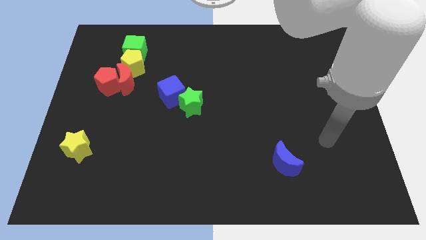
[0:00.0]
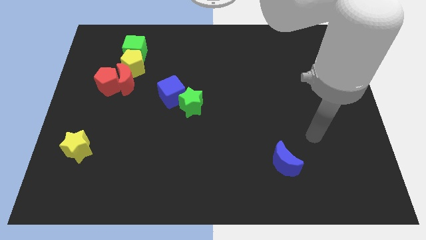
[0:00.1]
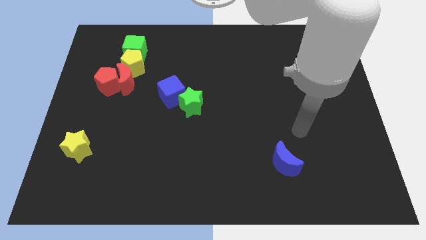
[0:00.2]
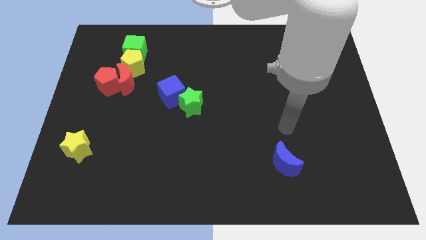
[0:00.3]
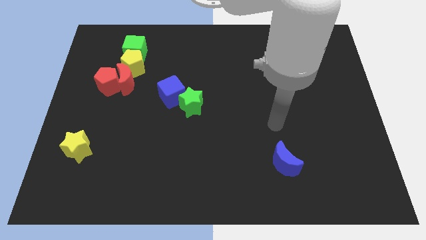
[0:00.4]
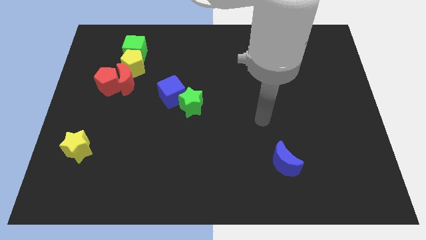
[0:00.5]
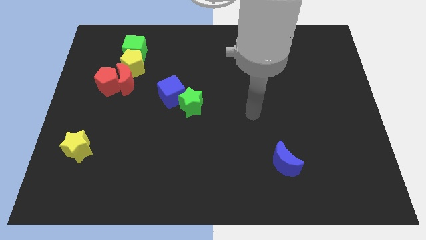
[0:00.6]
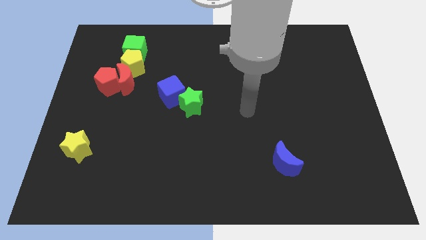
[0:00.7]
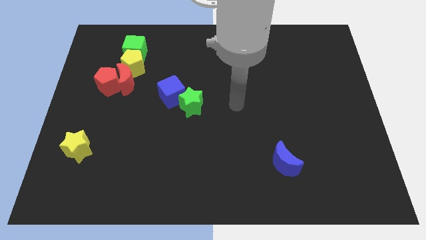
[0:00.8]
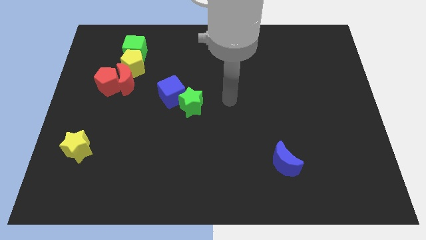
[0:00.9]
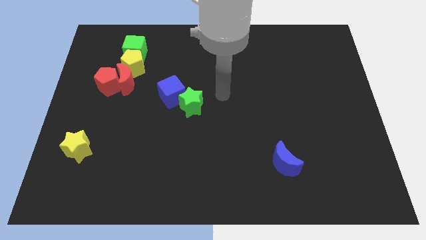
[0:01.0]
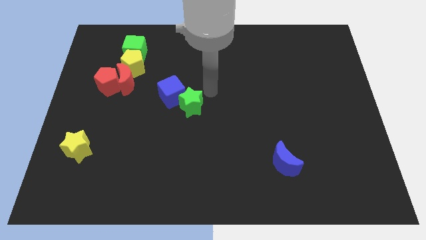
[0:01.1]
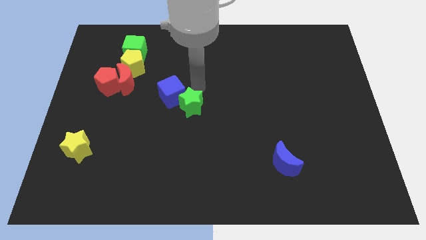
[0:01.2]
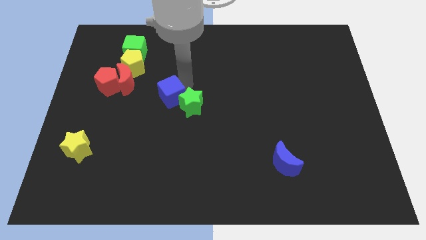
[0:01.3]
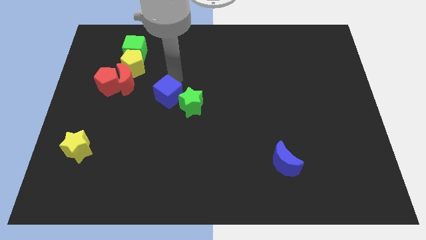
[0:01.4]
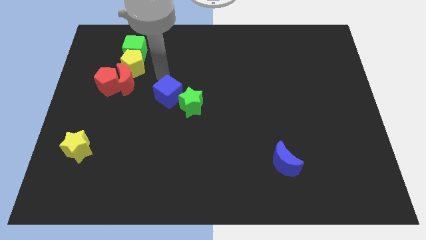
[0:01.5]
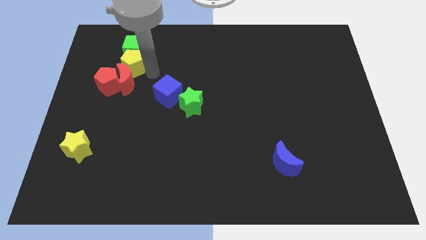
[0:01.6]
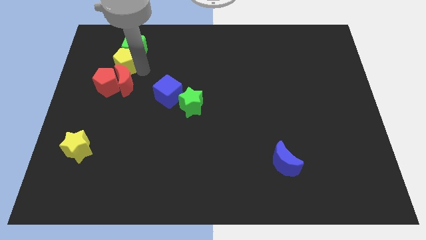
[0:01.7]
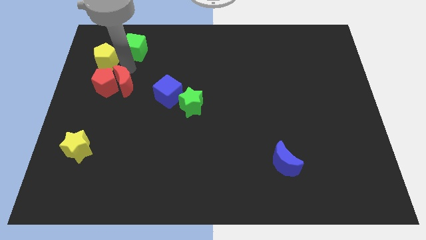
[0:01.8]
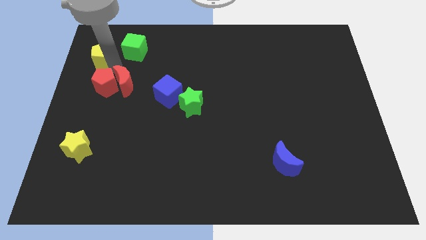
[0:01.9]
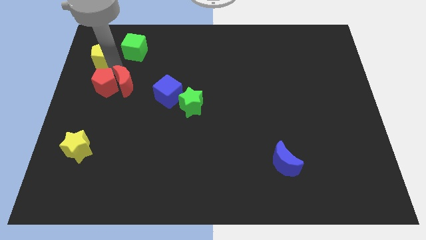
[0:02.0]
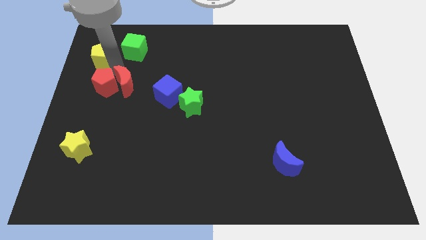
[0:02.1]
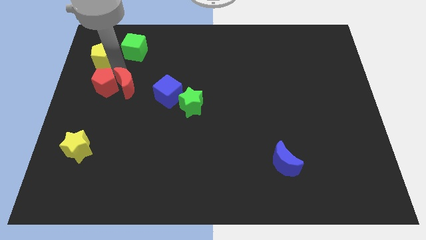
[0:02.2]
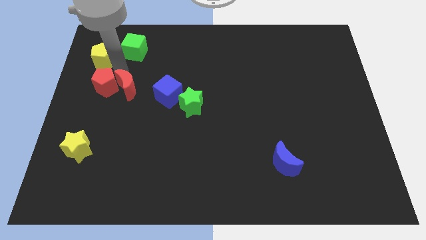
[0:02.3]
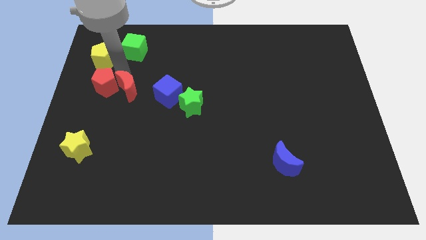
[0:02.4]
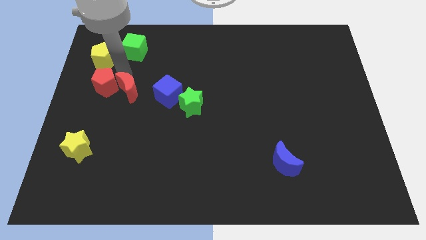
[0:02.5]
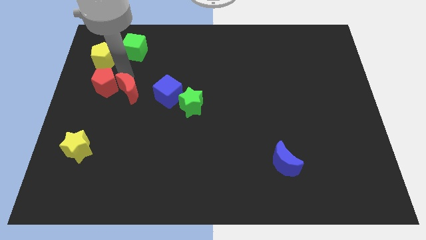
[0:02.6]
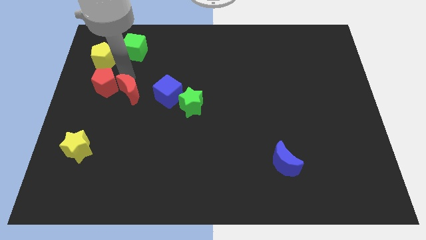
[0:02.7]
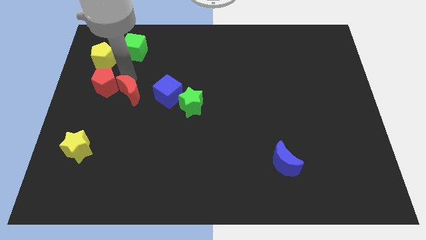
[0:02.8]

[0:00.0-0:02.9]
pull the red moon apart from the red pentagon and yellow pentagon

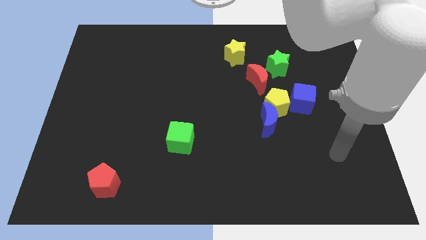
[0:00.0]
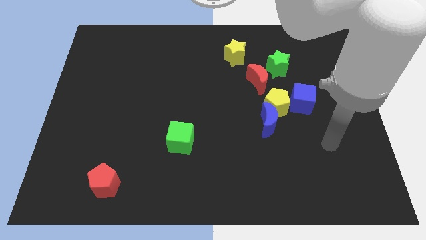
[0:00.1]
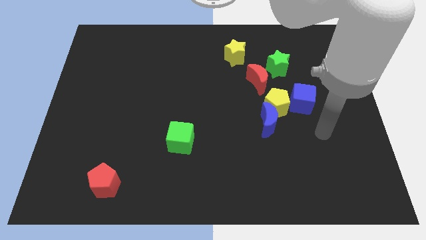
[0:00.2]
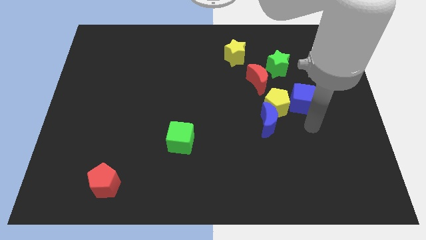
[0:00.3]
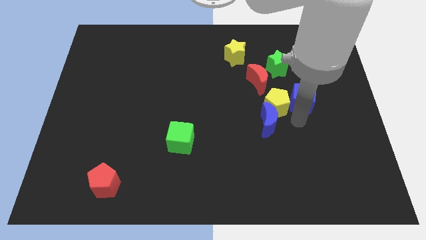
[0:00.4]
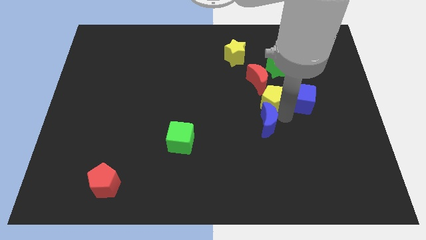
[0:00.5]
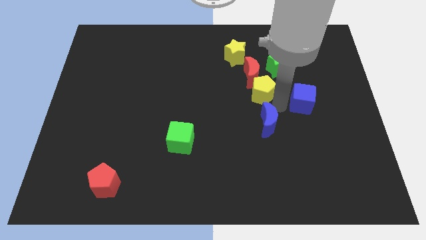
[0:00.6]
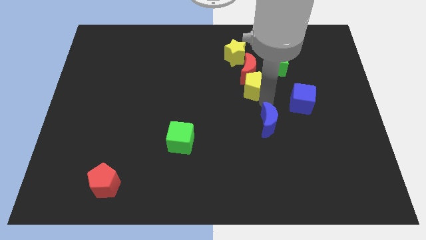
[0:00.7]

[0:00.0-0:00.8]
pull the blue moon apart from the yellow pentagon

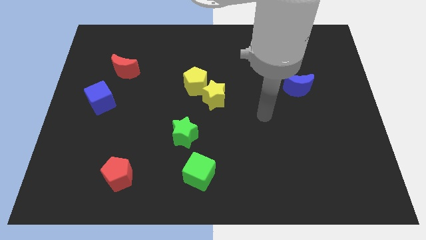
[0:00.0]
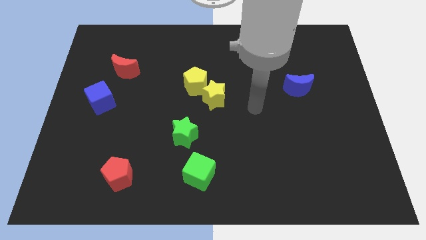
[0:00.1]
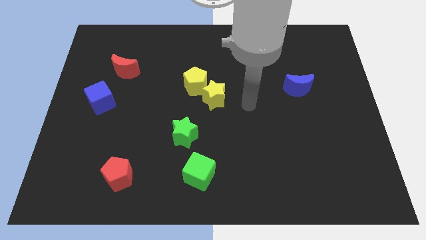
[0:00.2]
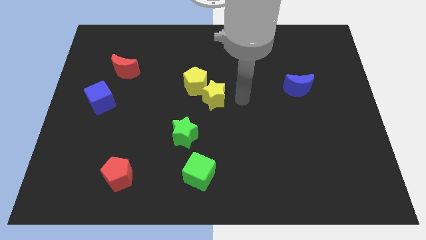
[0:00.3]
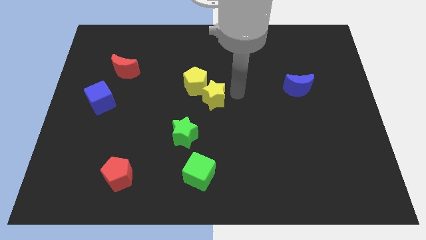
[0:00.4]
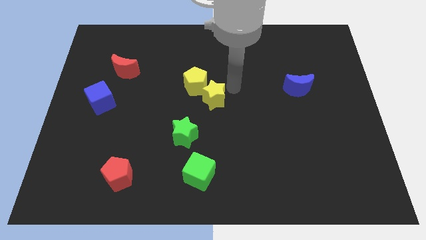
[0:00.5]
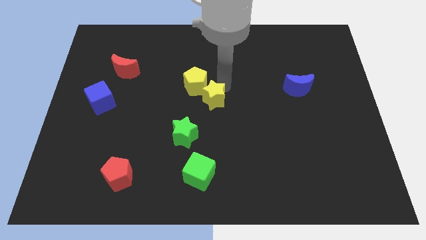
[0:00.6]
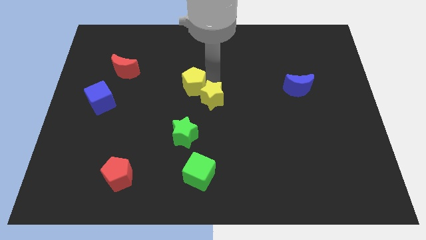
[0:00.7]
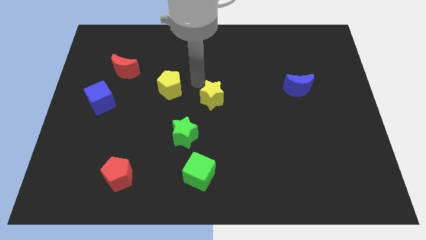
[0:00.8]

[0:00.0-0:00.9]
pull the yellow star apart from the yellow pentagon

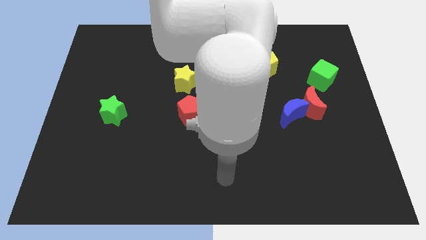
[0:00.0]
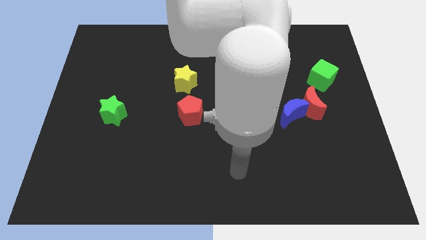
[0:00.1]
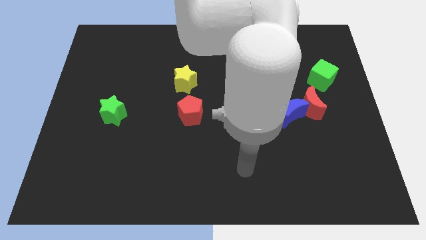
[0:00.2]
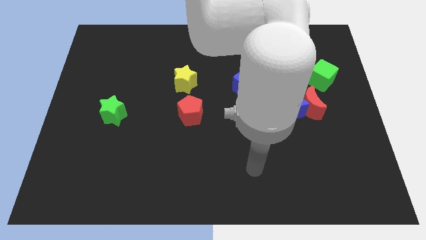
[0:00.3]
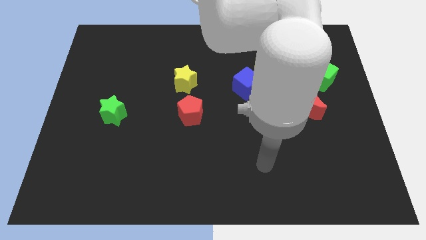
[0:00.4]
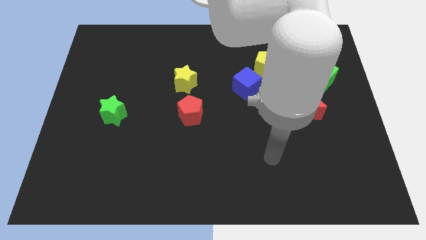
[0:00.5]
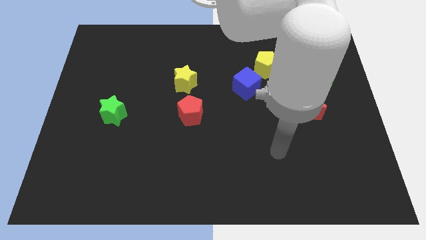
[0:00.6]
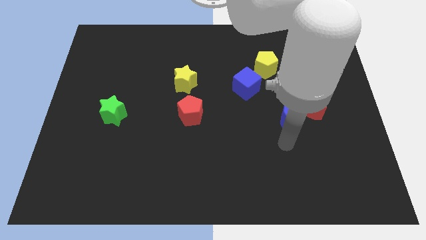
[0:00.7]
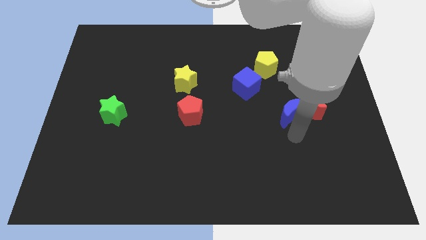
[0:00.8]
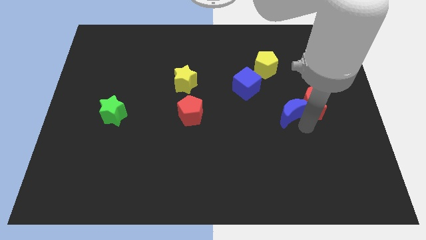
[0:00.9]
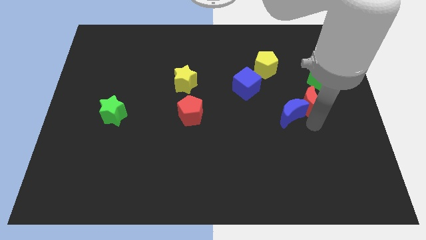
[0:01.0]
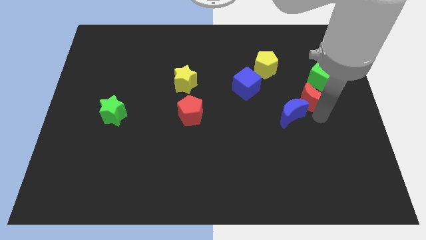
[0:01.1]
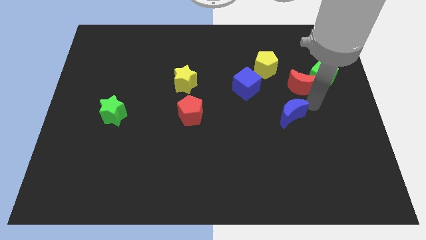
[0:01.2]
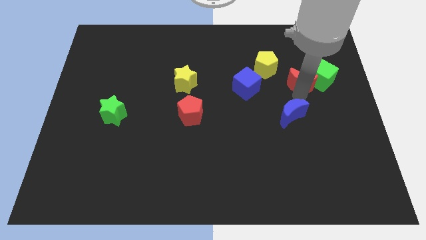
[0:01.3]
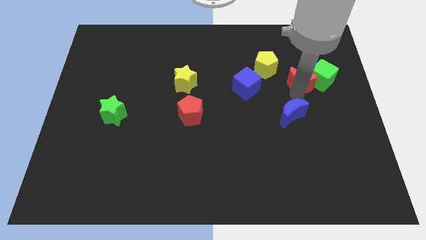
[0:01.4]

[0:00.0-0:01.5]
separate the blue moon from the red moon

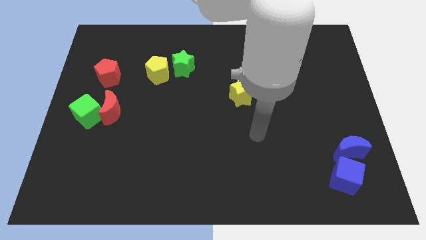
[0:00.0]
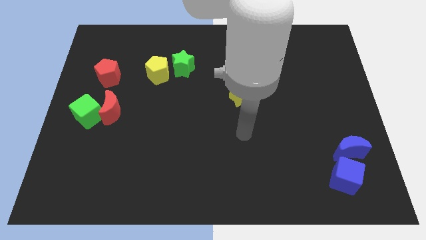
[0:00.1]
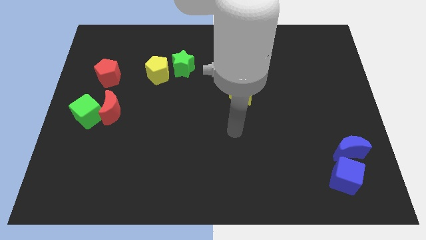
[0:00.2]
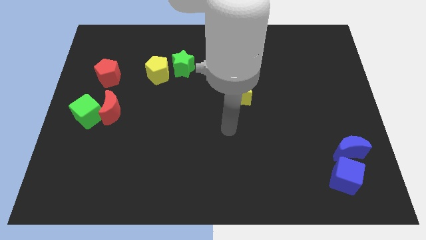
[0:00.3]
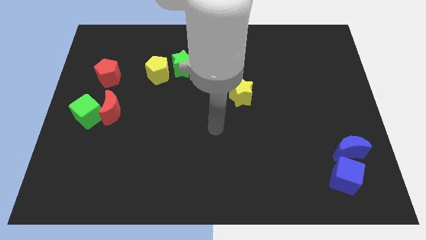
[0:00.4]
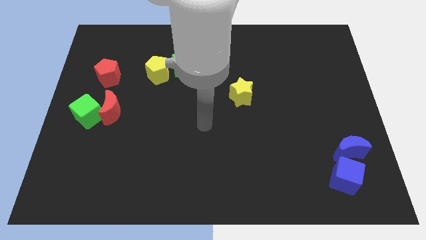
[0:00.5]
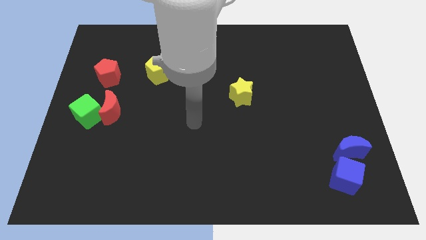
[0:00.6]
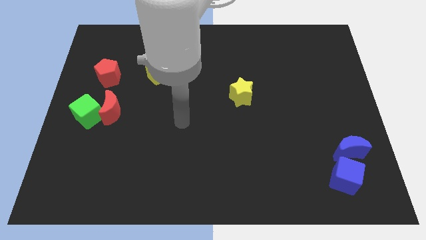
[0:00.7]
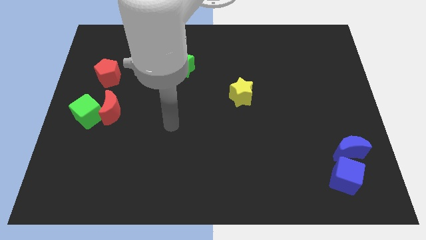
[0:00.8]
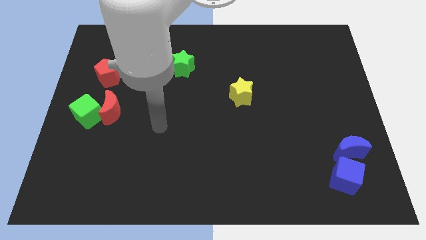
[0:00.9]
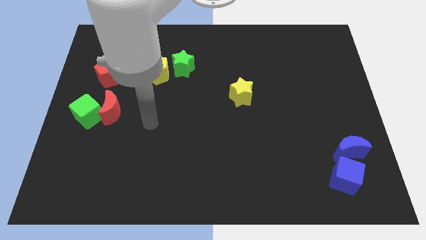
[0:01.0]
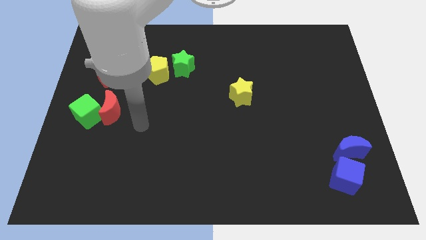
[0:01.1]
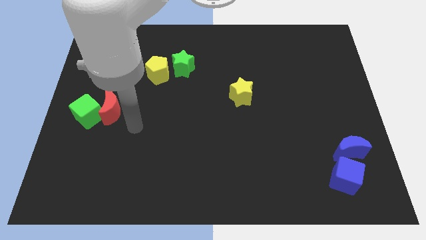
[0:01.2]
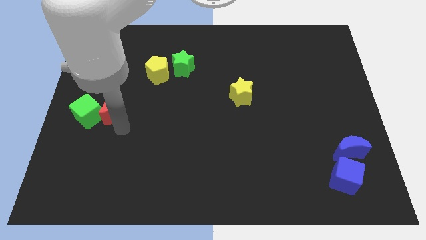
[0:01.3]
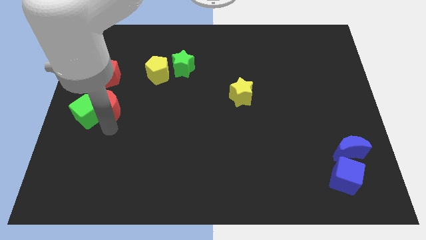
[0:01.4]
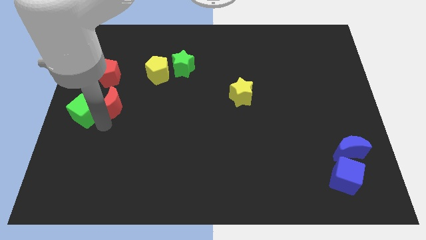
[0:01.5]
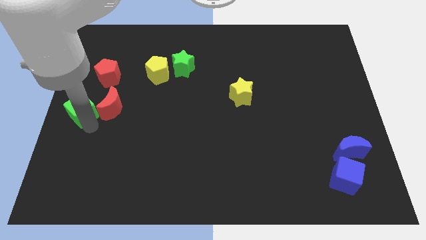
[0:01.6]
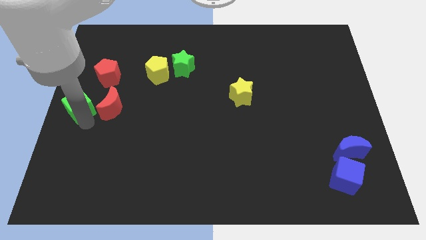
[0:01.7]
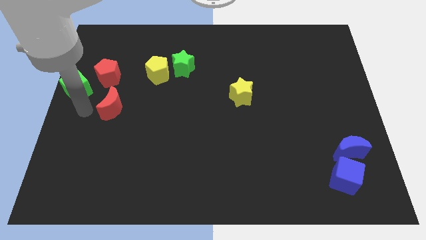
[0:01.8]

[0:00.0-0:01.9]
move the red moon away from the green cube

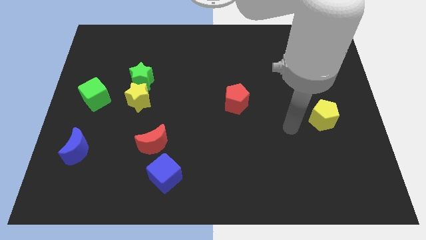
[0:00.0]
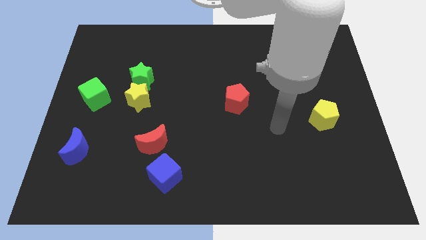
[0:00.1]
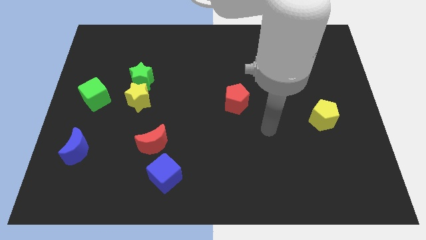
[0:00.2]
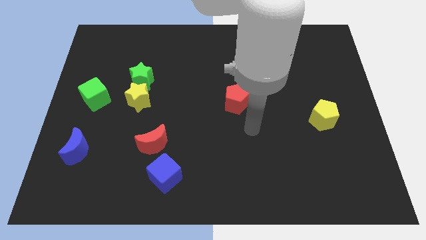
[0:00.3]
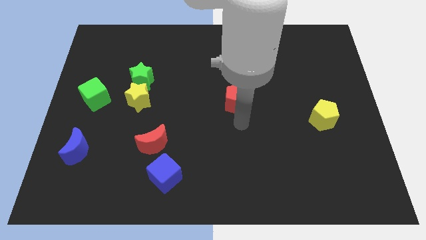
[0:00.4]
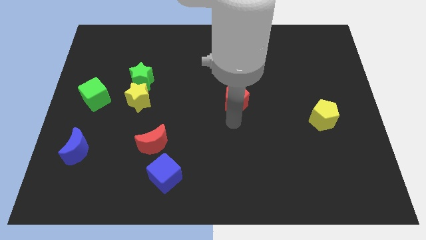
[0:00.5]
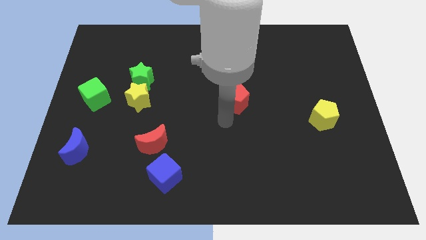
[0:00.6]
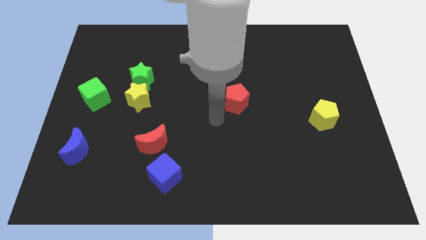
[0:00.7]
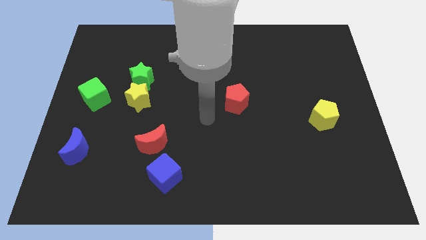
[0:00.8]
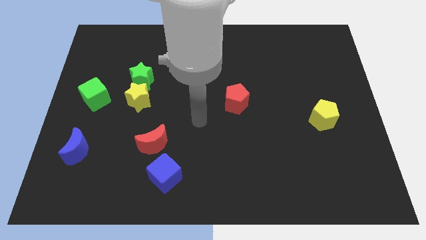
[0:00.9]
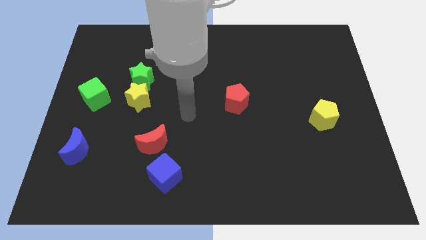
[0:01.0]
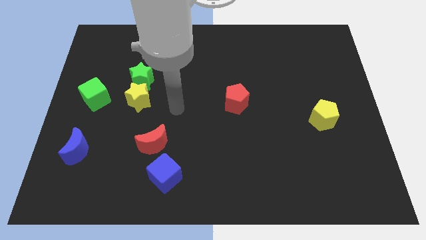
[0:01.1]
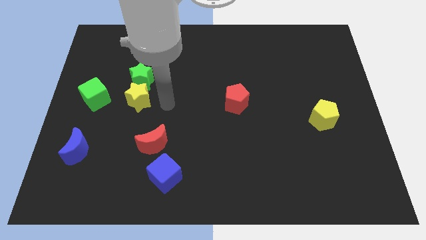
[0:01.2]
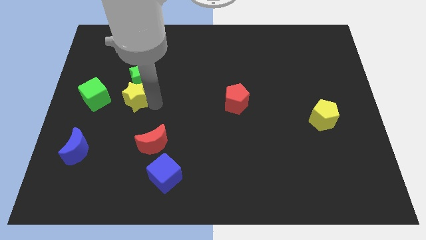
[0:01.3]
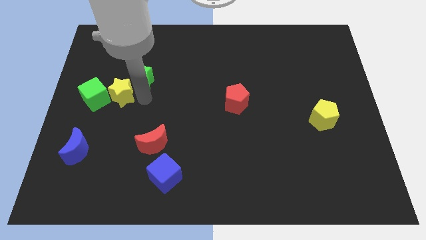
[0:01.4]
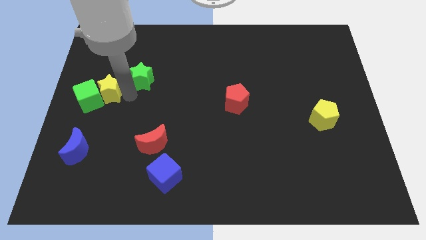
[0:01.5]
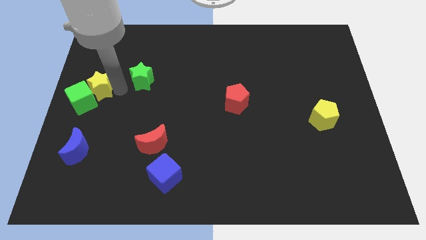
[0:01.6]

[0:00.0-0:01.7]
pull the green star apart from the yellow star
